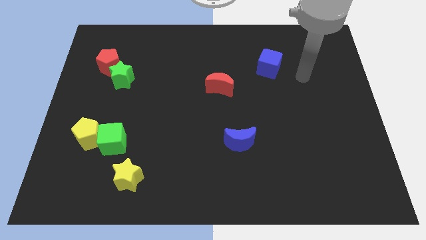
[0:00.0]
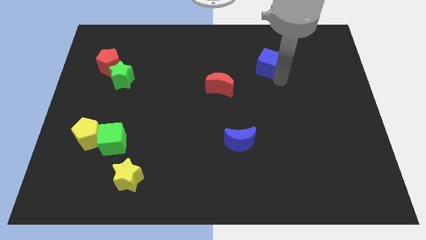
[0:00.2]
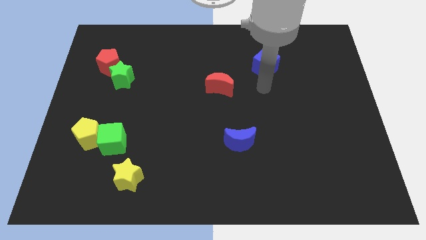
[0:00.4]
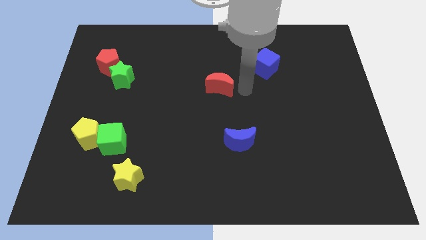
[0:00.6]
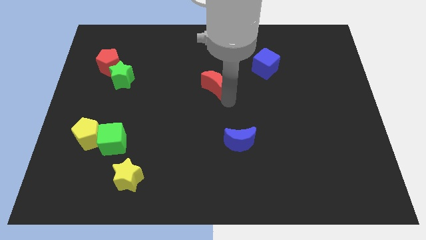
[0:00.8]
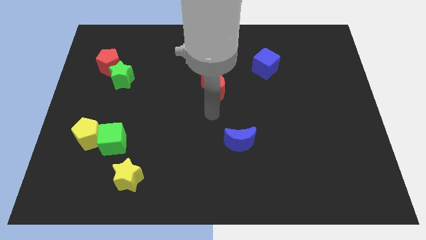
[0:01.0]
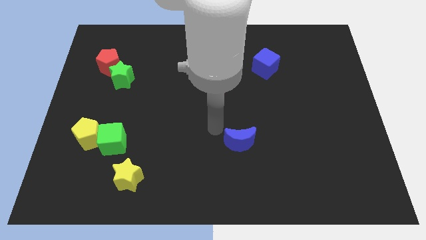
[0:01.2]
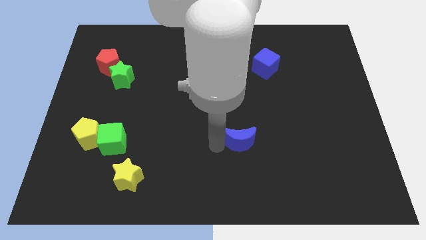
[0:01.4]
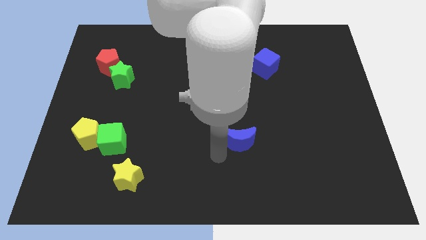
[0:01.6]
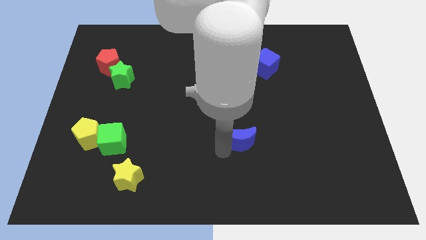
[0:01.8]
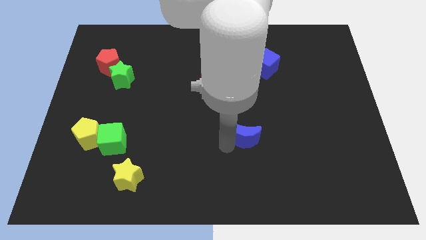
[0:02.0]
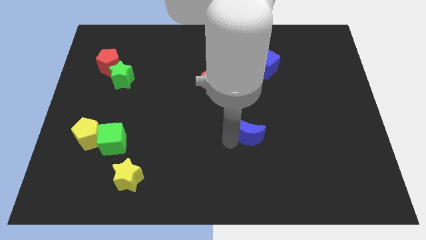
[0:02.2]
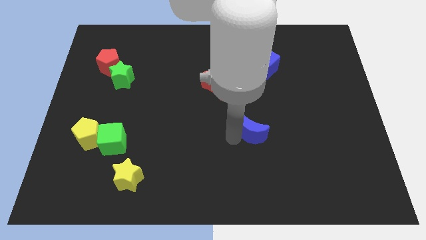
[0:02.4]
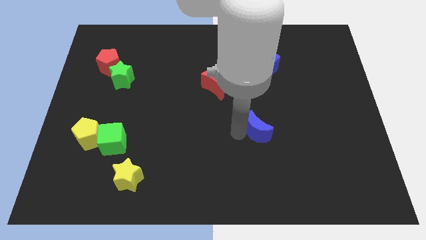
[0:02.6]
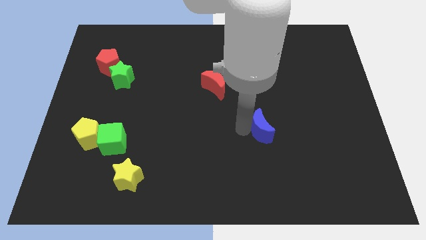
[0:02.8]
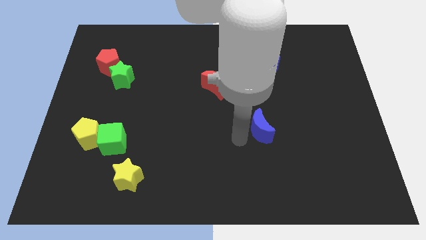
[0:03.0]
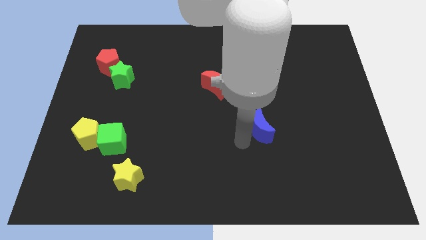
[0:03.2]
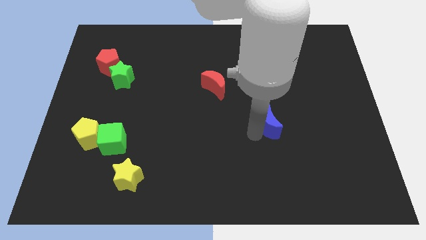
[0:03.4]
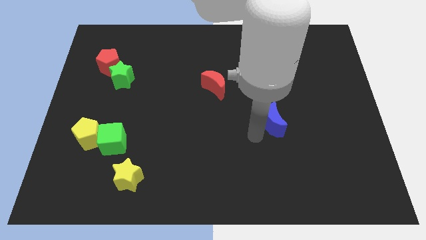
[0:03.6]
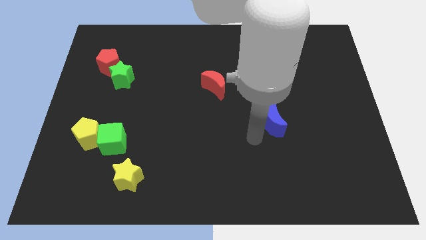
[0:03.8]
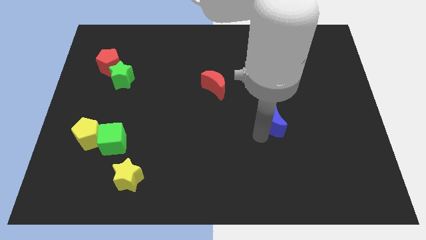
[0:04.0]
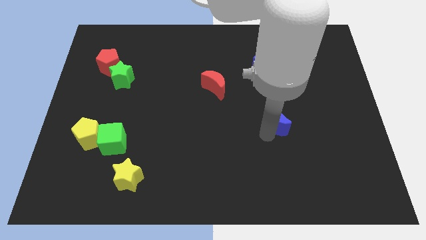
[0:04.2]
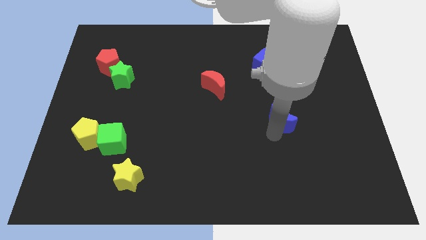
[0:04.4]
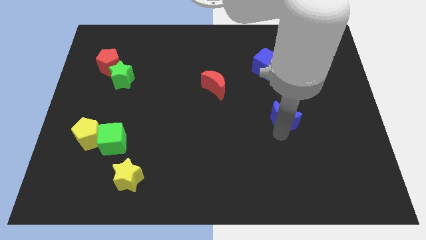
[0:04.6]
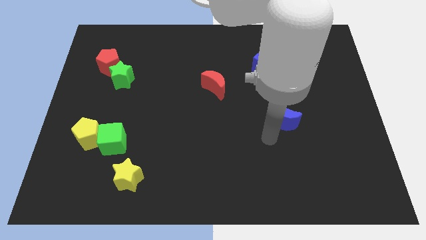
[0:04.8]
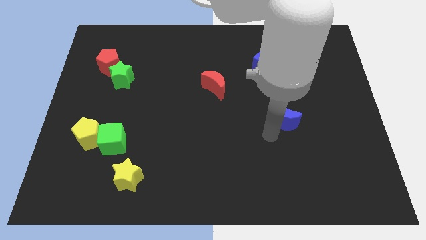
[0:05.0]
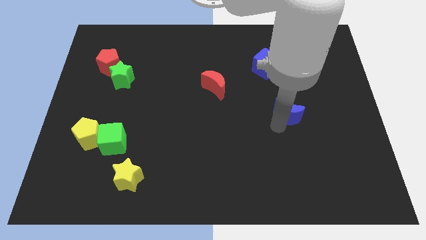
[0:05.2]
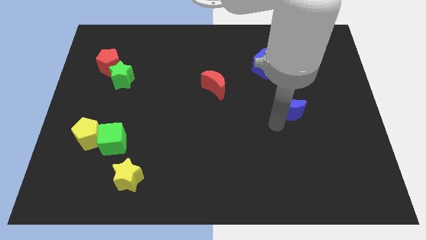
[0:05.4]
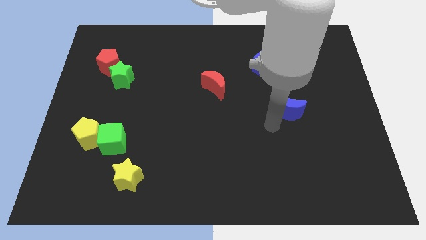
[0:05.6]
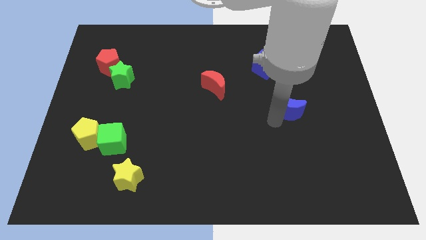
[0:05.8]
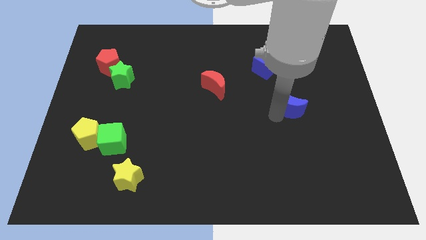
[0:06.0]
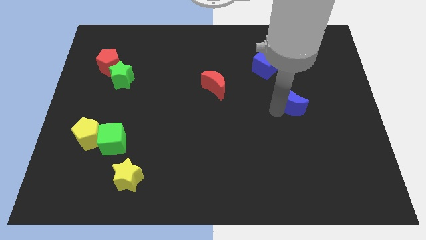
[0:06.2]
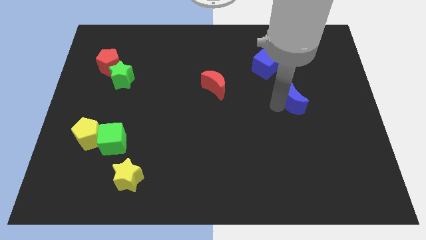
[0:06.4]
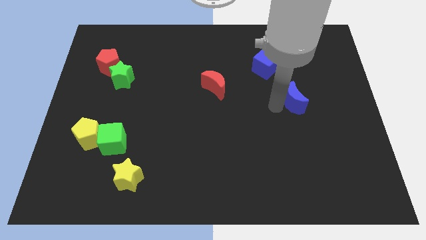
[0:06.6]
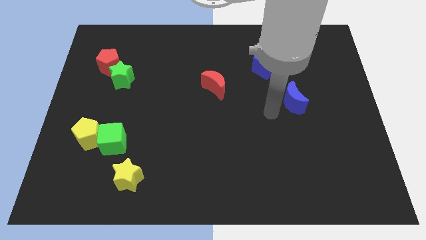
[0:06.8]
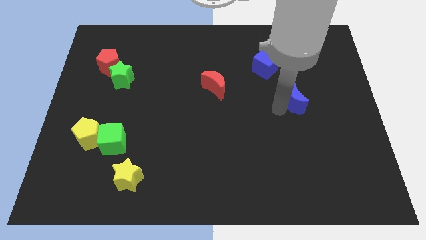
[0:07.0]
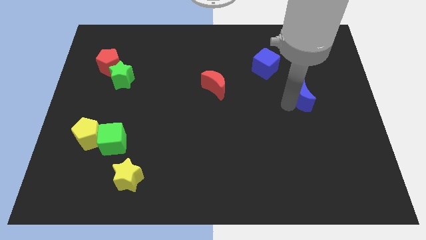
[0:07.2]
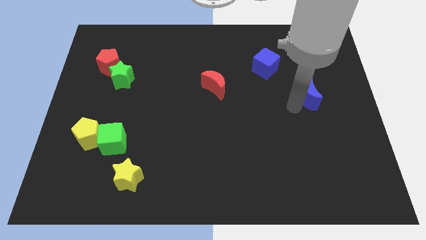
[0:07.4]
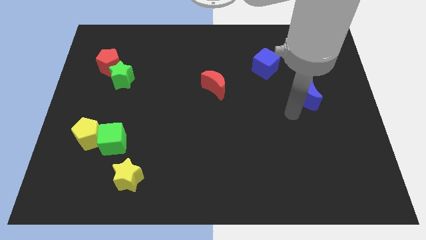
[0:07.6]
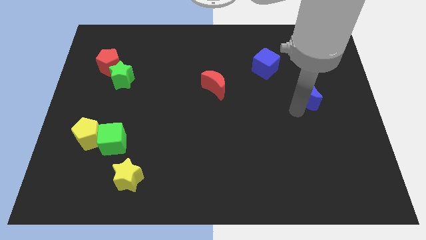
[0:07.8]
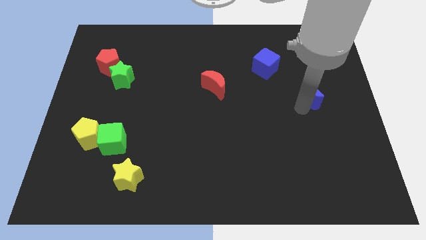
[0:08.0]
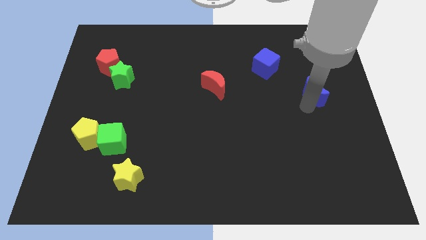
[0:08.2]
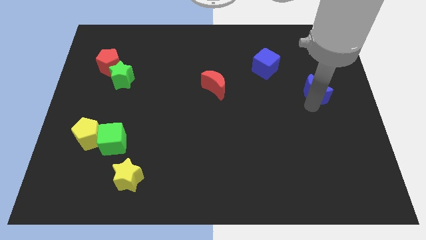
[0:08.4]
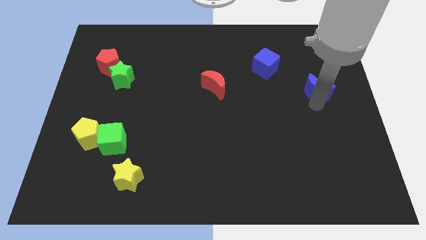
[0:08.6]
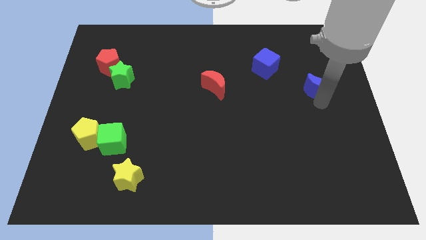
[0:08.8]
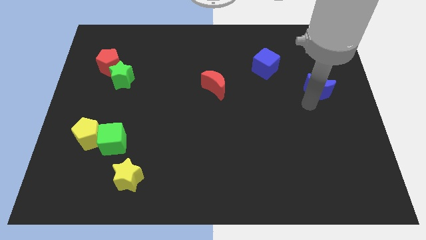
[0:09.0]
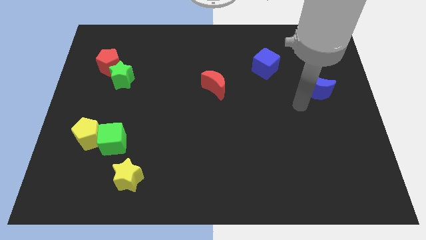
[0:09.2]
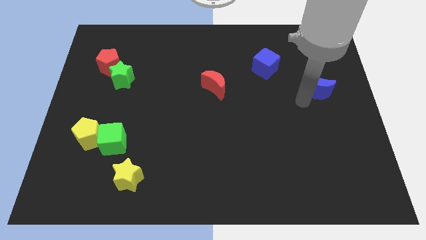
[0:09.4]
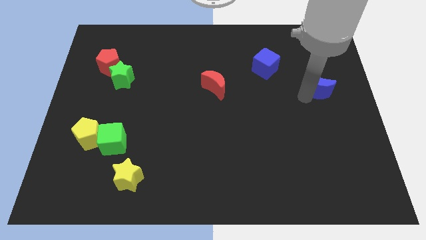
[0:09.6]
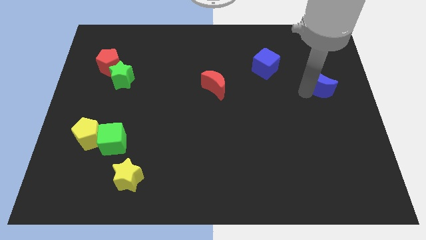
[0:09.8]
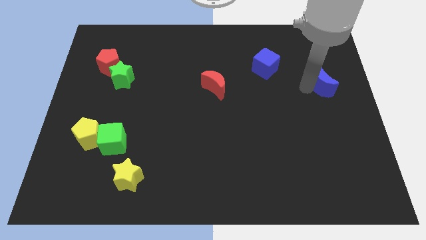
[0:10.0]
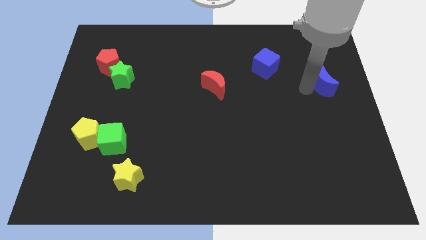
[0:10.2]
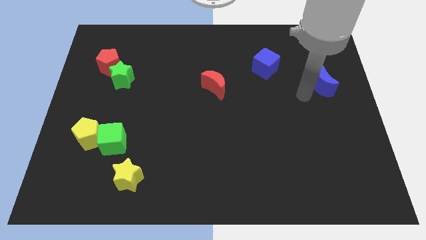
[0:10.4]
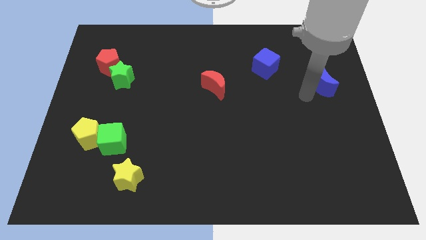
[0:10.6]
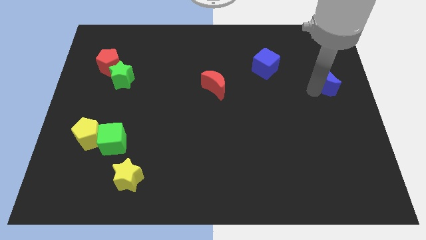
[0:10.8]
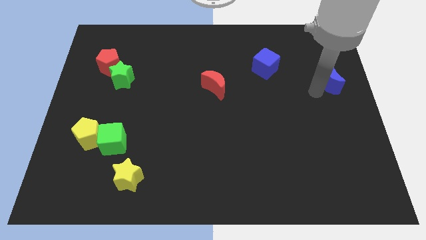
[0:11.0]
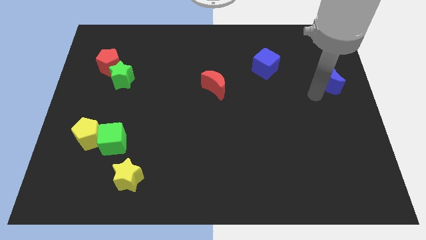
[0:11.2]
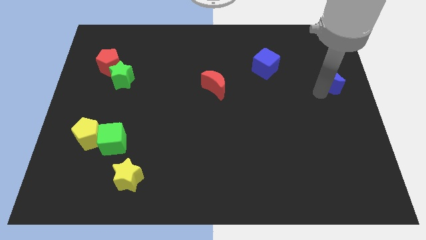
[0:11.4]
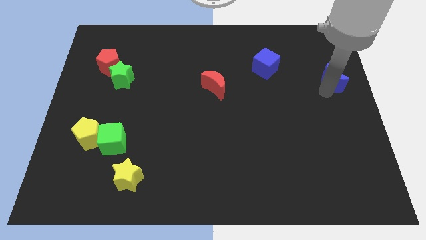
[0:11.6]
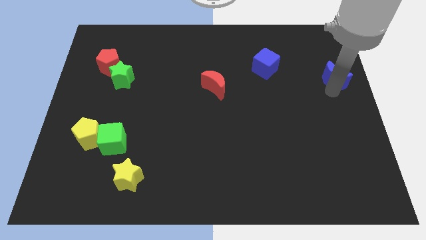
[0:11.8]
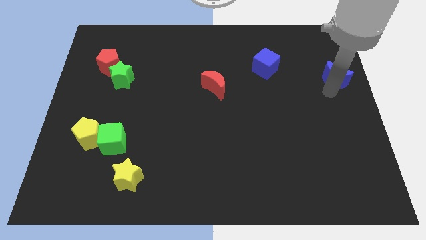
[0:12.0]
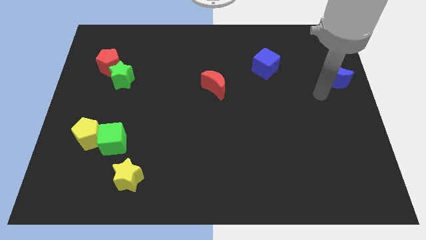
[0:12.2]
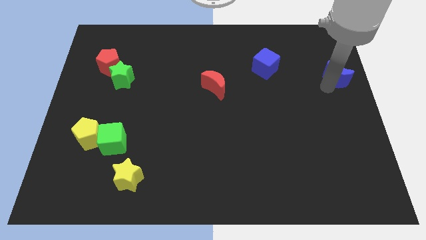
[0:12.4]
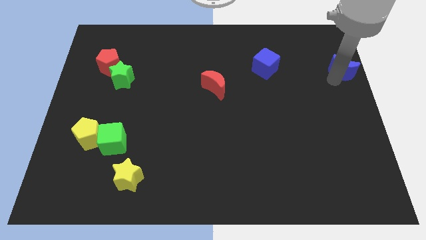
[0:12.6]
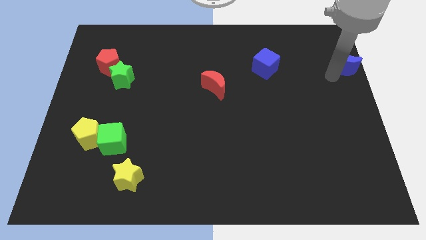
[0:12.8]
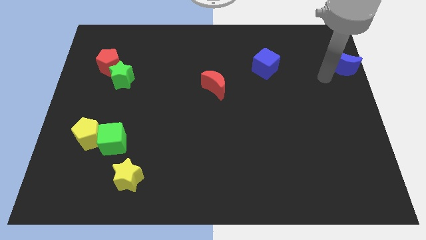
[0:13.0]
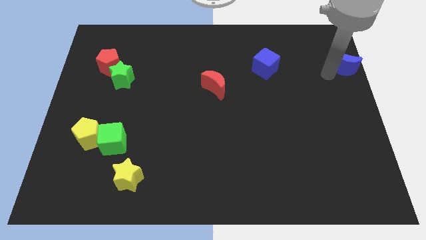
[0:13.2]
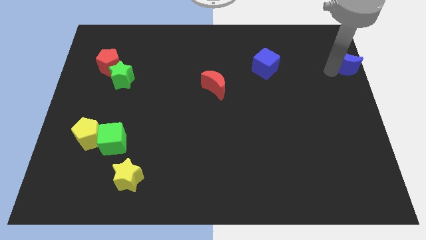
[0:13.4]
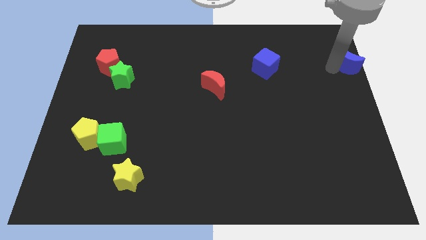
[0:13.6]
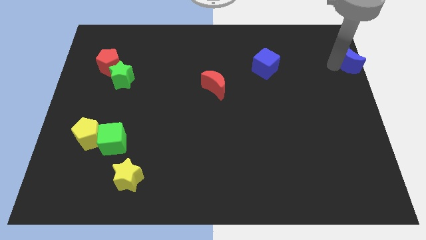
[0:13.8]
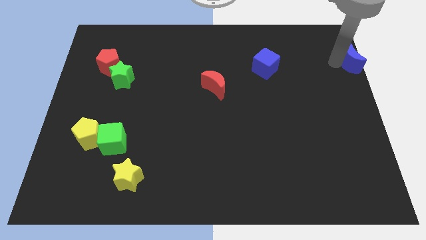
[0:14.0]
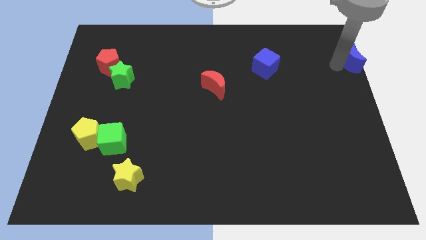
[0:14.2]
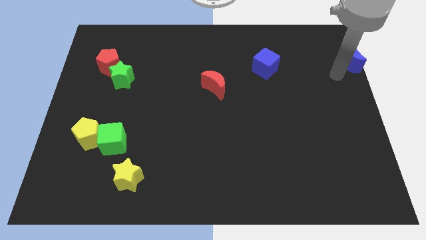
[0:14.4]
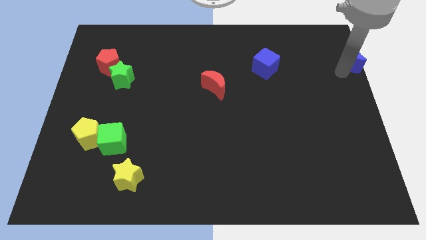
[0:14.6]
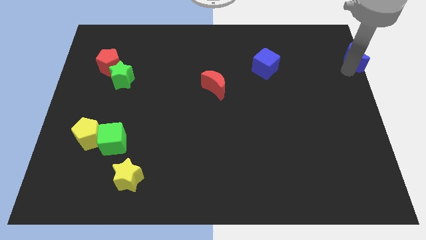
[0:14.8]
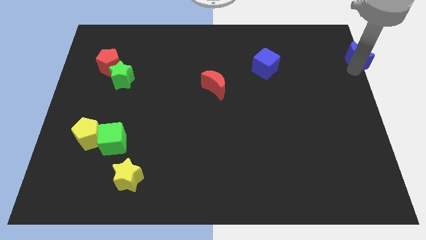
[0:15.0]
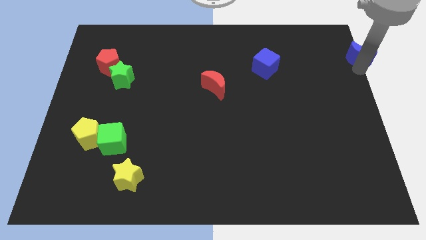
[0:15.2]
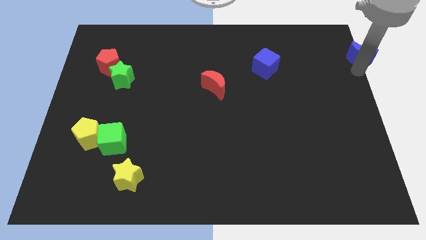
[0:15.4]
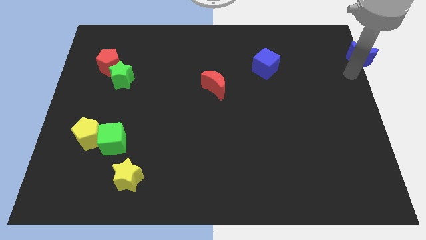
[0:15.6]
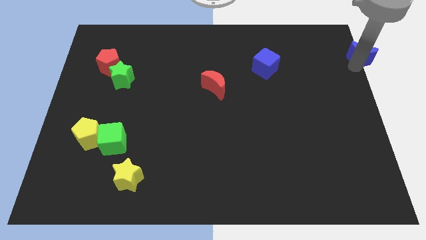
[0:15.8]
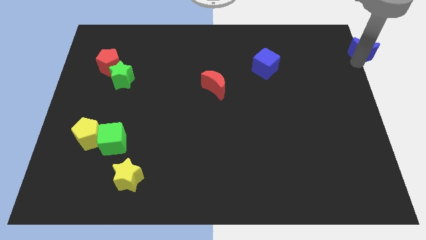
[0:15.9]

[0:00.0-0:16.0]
put the blue moon to the upper right corner

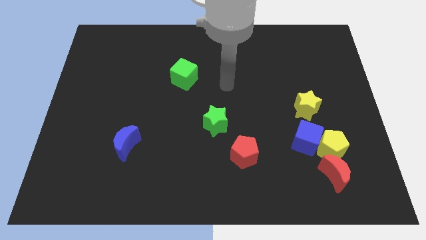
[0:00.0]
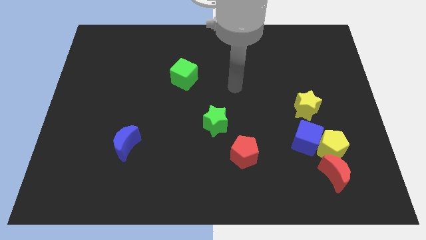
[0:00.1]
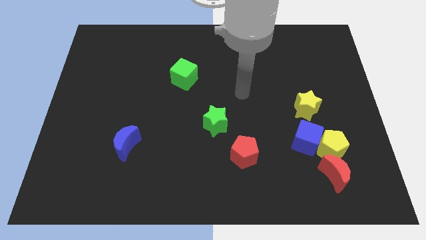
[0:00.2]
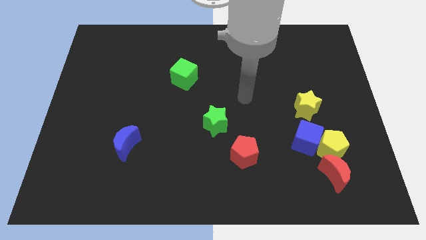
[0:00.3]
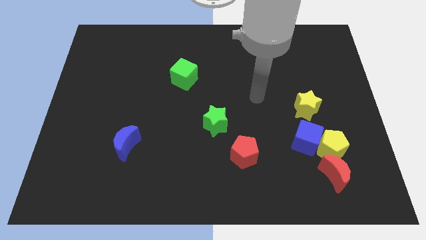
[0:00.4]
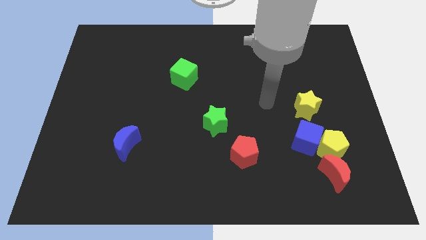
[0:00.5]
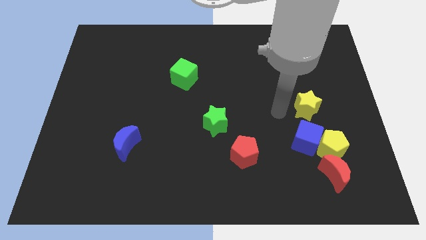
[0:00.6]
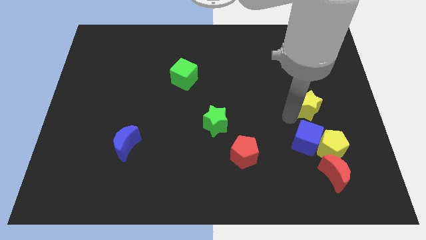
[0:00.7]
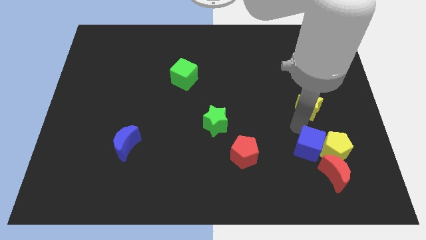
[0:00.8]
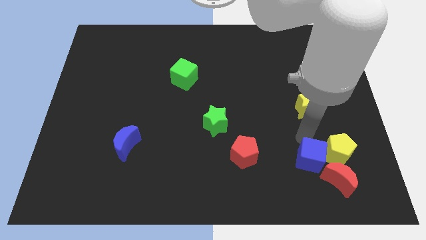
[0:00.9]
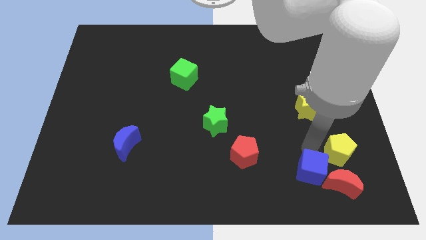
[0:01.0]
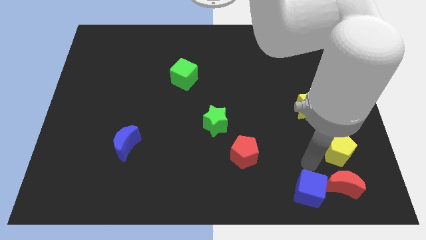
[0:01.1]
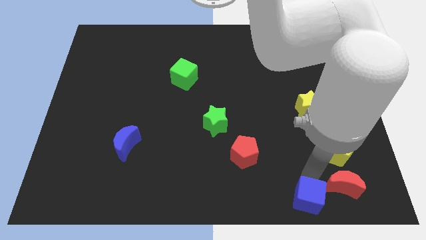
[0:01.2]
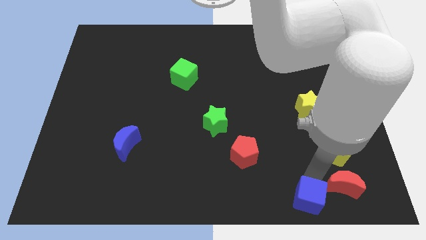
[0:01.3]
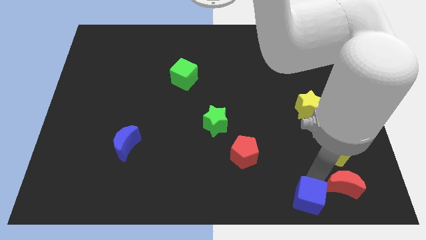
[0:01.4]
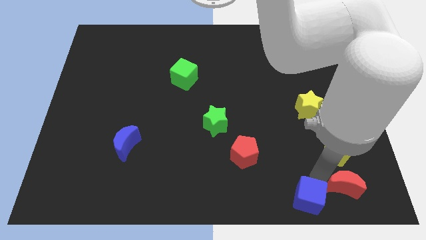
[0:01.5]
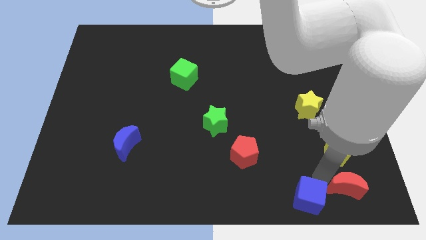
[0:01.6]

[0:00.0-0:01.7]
push the red moon to the bottom right of the board
